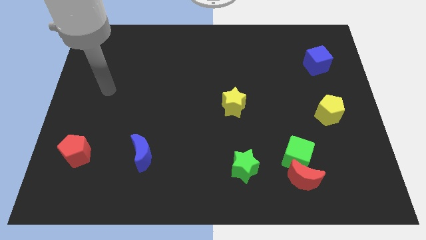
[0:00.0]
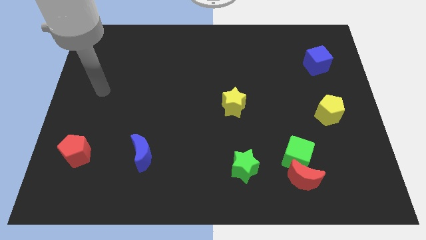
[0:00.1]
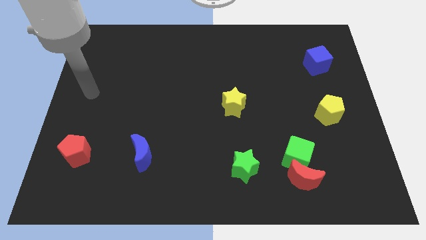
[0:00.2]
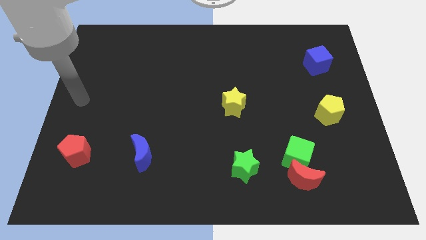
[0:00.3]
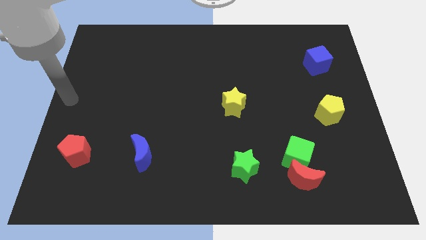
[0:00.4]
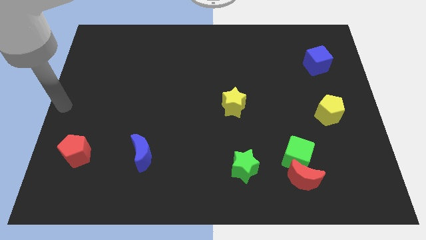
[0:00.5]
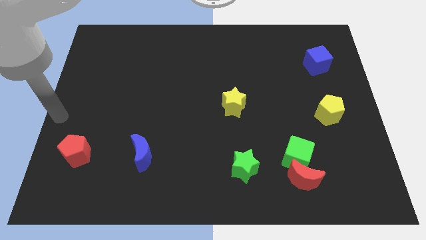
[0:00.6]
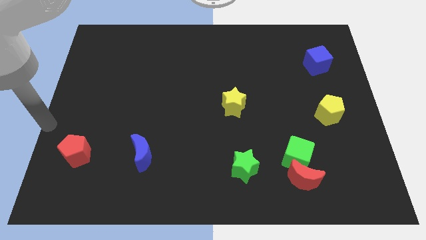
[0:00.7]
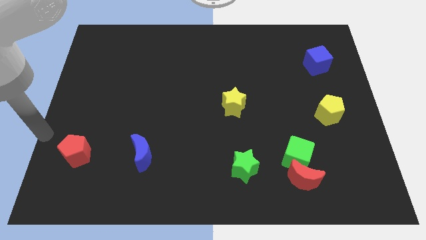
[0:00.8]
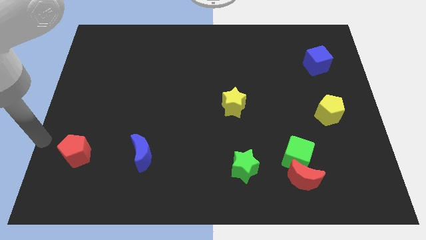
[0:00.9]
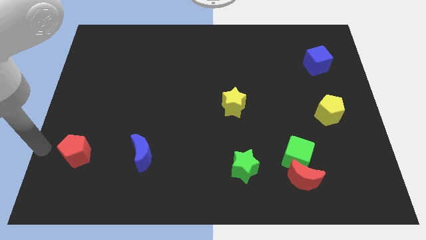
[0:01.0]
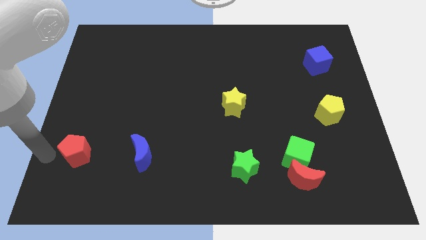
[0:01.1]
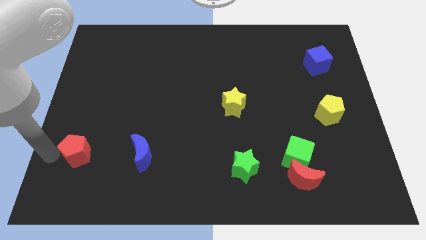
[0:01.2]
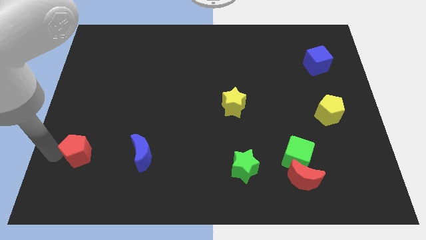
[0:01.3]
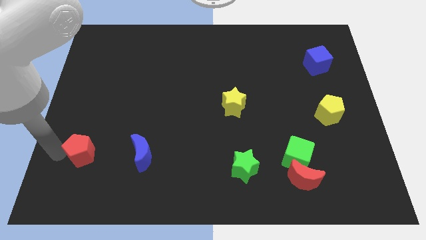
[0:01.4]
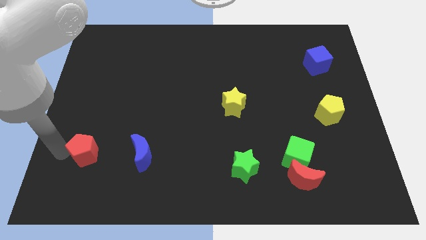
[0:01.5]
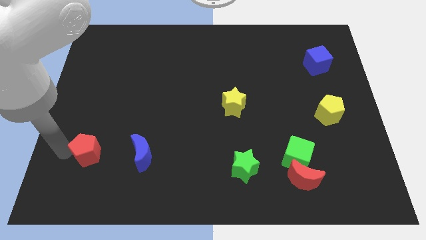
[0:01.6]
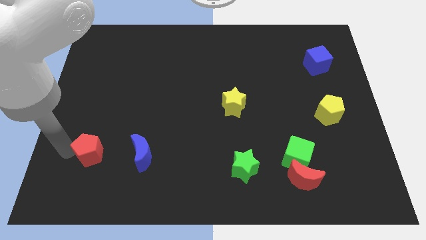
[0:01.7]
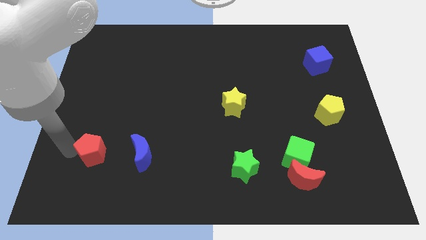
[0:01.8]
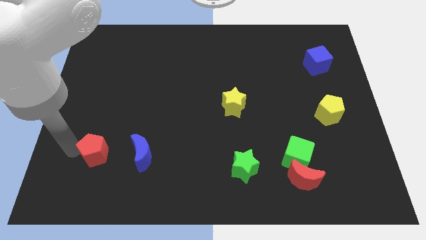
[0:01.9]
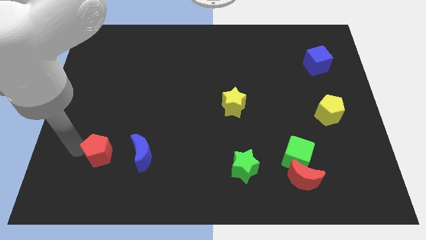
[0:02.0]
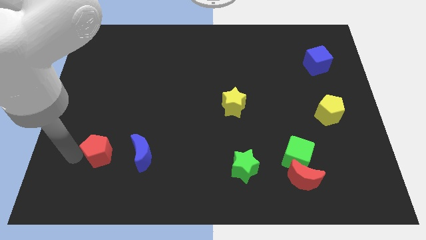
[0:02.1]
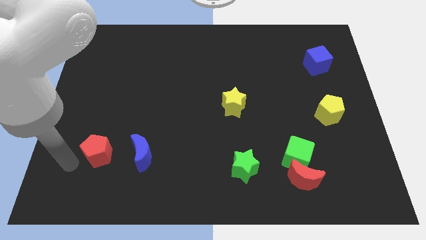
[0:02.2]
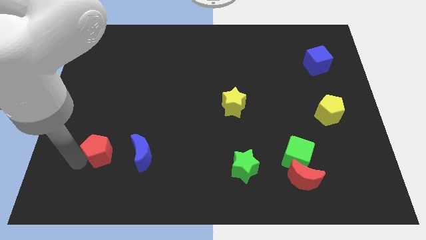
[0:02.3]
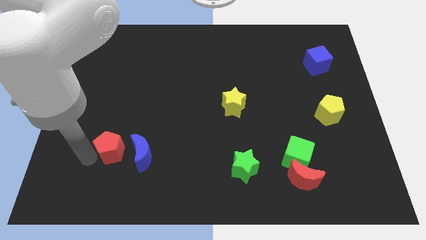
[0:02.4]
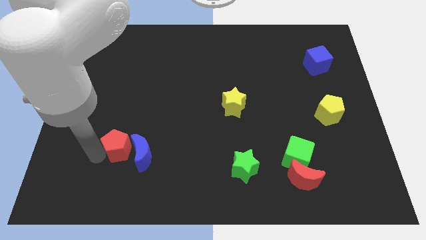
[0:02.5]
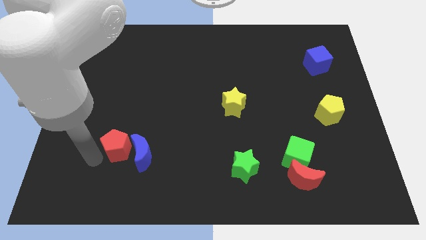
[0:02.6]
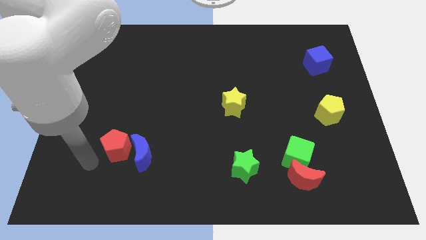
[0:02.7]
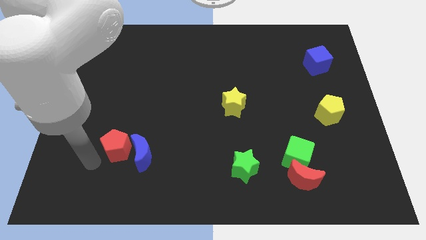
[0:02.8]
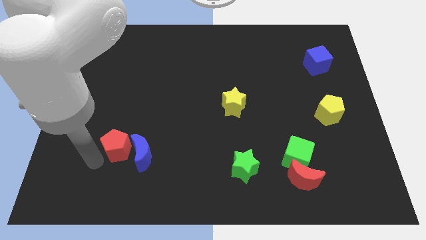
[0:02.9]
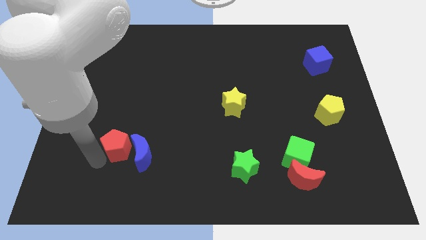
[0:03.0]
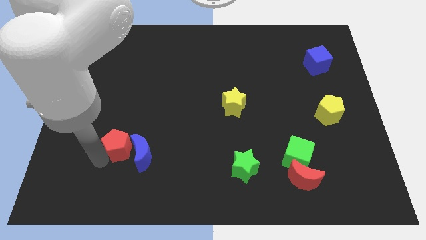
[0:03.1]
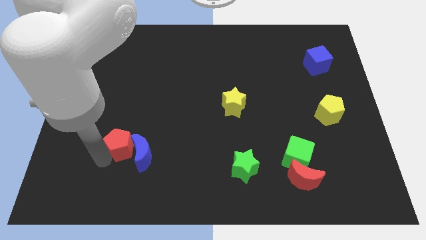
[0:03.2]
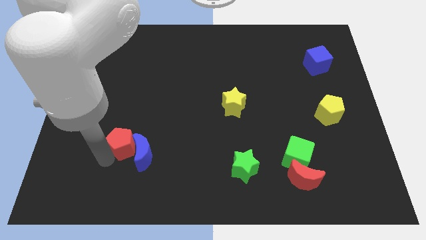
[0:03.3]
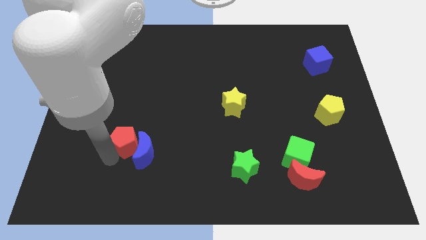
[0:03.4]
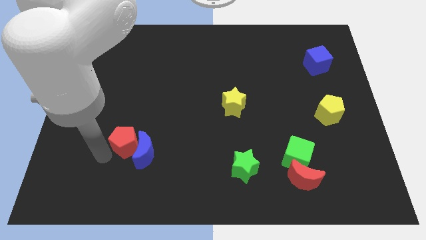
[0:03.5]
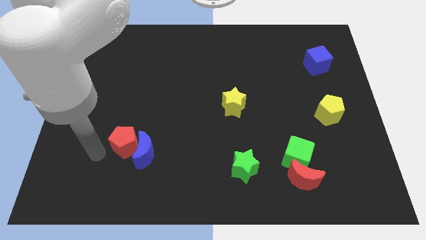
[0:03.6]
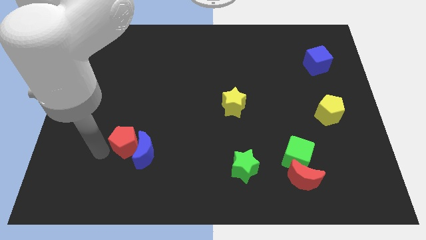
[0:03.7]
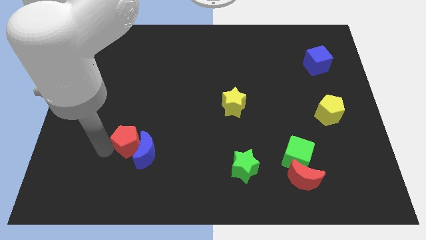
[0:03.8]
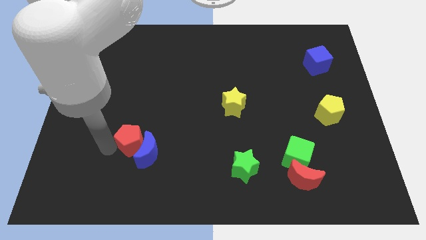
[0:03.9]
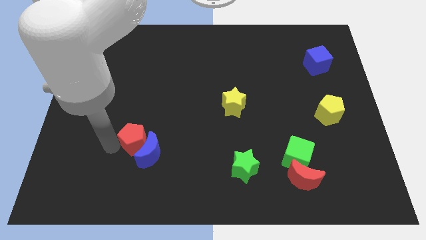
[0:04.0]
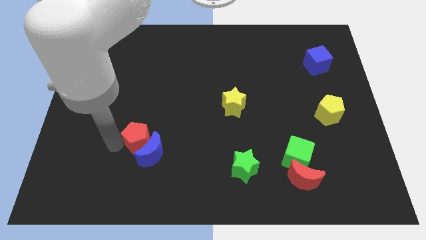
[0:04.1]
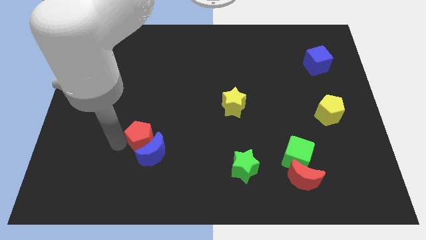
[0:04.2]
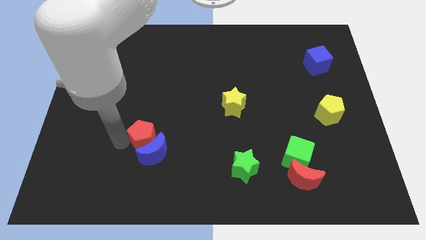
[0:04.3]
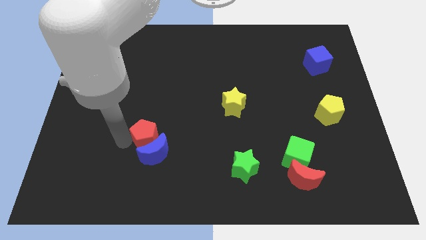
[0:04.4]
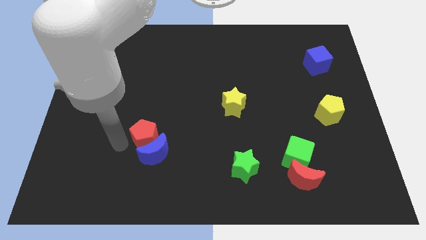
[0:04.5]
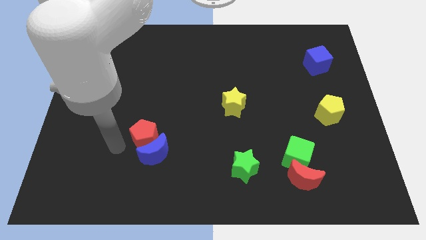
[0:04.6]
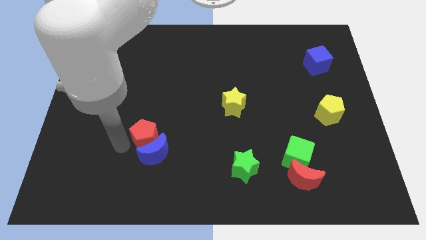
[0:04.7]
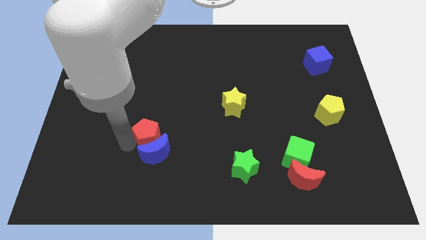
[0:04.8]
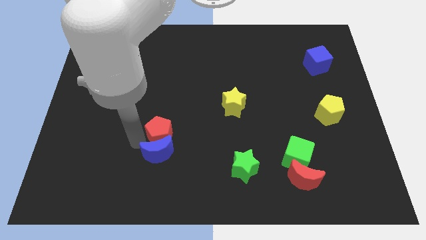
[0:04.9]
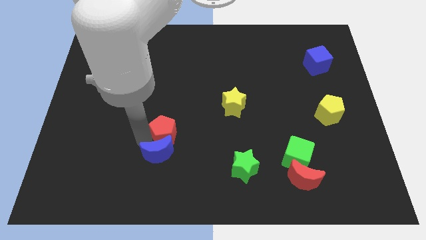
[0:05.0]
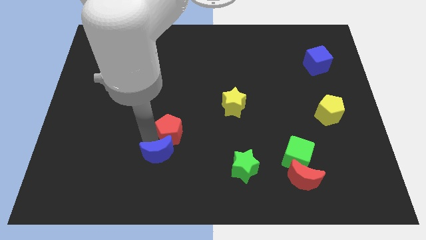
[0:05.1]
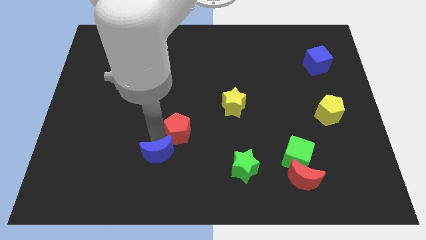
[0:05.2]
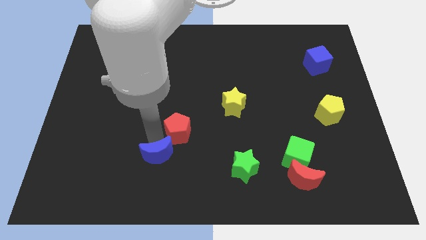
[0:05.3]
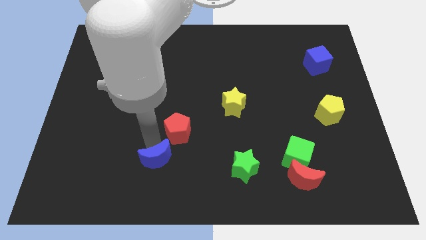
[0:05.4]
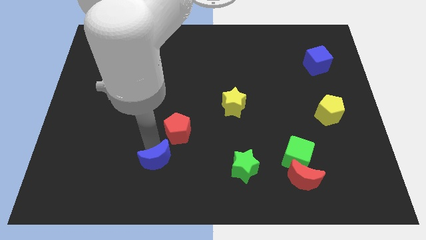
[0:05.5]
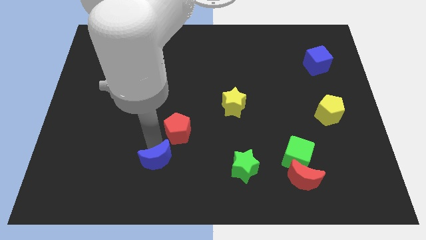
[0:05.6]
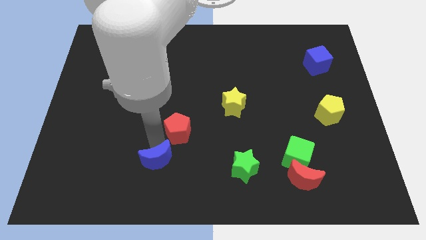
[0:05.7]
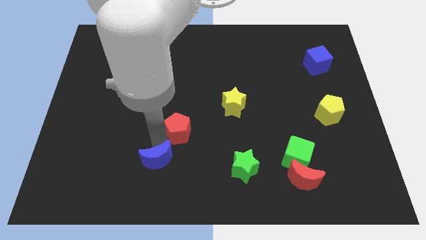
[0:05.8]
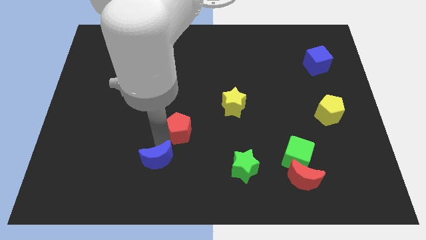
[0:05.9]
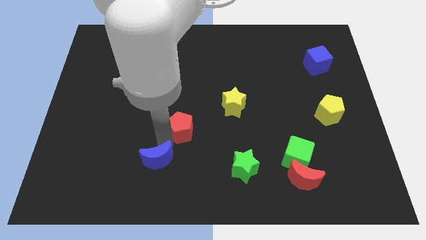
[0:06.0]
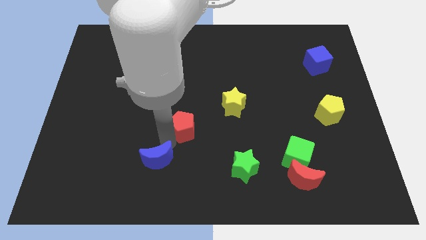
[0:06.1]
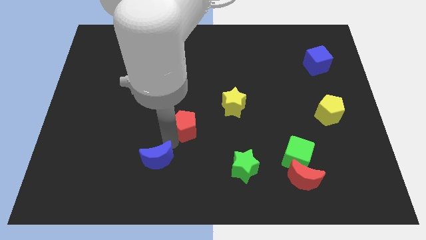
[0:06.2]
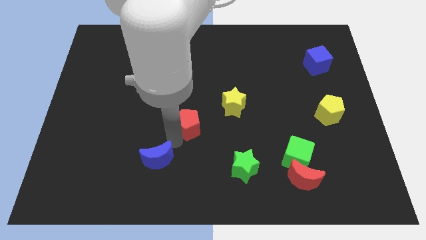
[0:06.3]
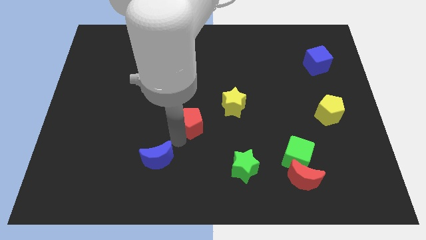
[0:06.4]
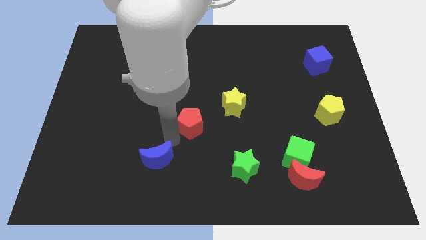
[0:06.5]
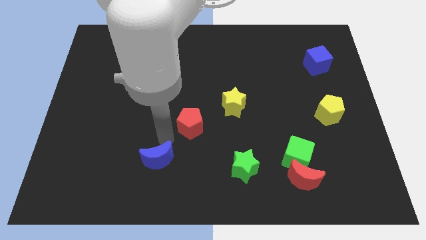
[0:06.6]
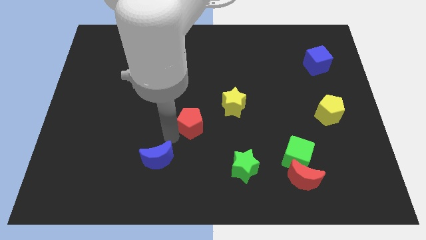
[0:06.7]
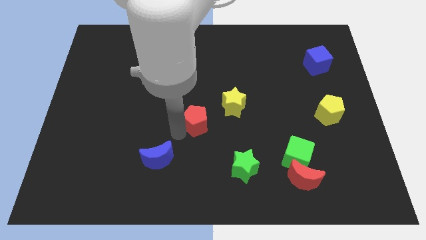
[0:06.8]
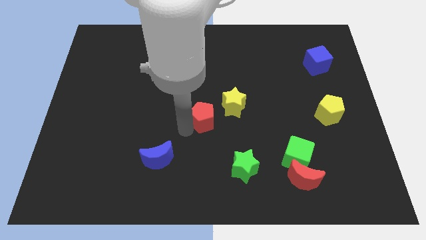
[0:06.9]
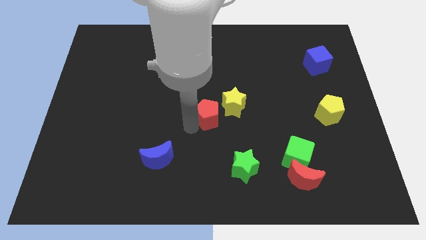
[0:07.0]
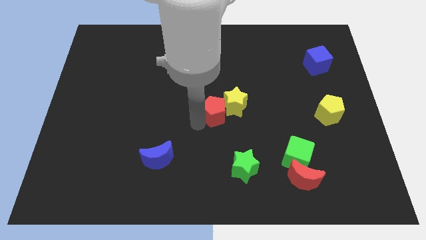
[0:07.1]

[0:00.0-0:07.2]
move the red pentagon next to the yellow star

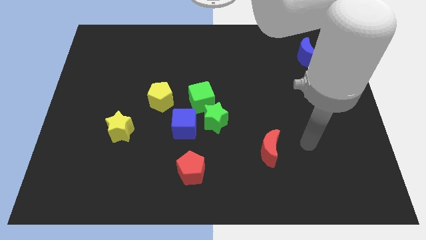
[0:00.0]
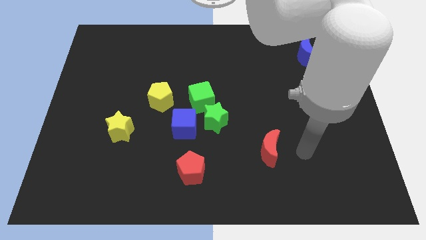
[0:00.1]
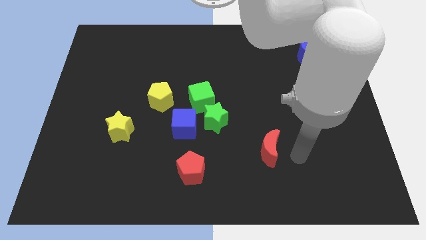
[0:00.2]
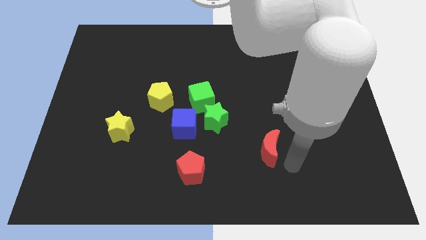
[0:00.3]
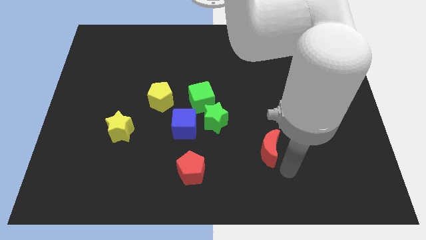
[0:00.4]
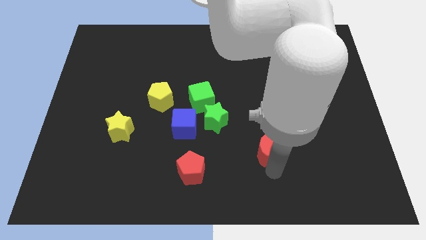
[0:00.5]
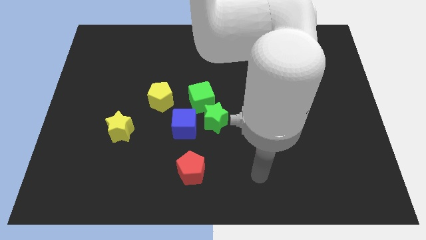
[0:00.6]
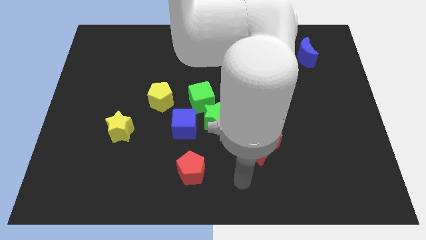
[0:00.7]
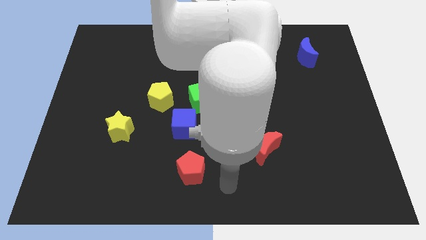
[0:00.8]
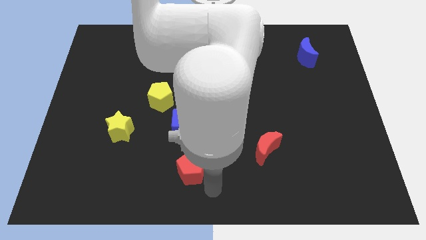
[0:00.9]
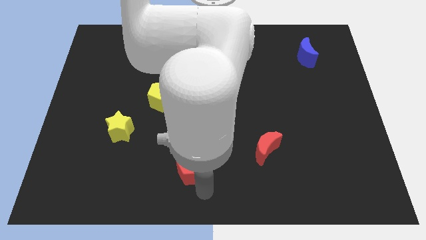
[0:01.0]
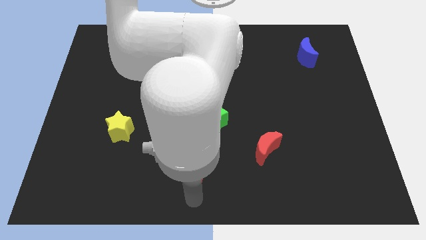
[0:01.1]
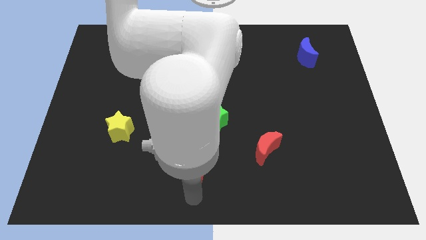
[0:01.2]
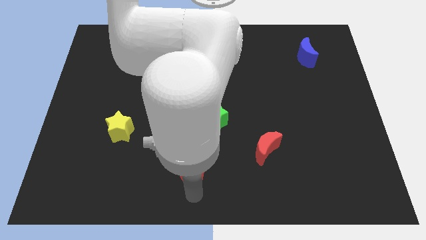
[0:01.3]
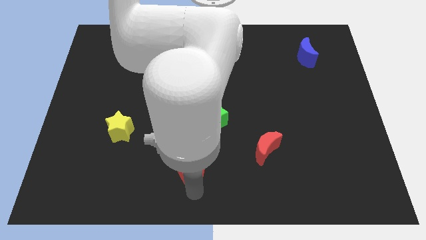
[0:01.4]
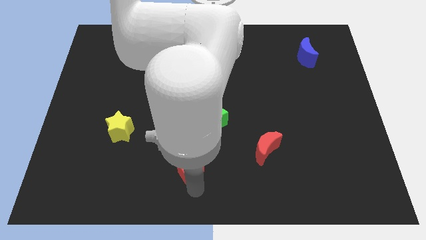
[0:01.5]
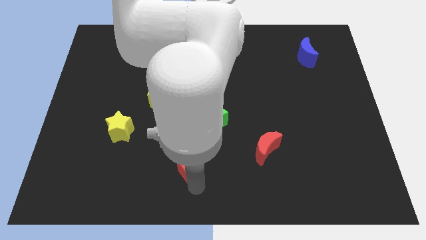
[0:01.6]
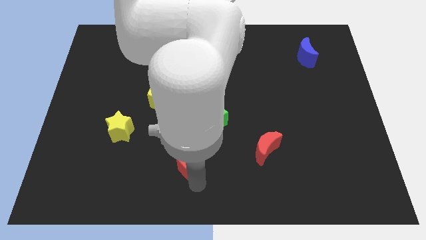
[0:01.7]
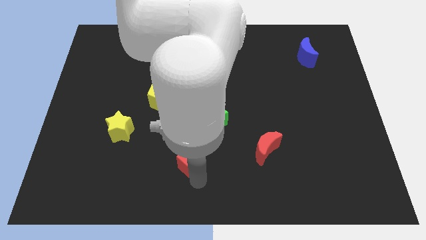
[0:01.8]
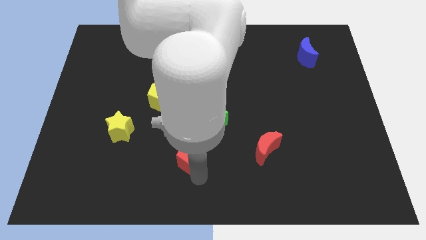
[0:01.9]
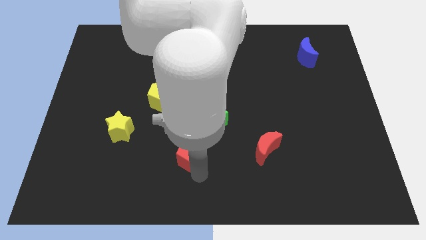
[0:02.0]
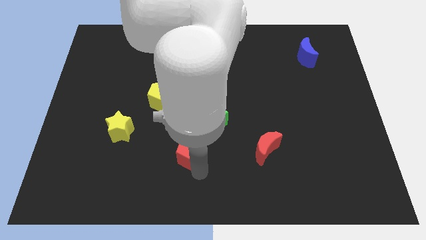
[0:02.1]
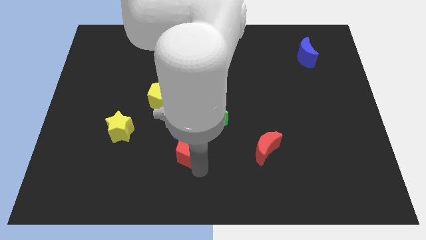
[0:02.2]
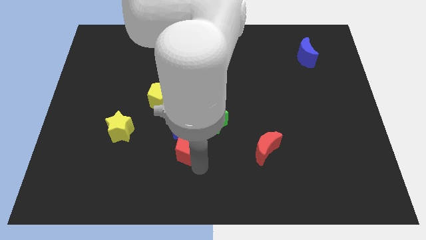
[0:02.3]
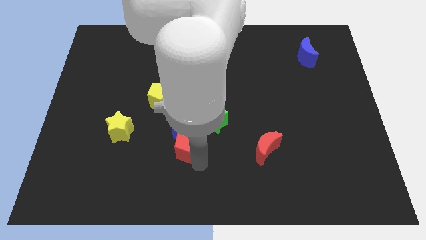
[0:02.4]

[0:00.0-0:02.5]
put the red pentagon next to the blue cube
